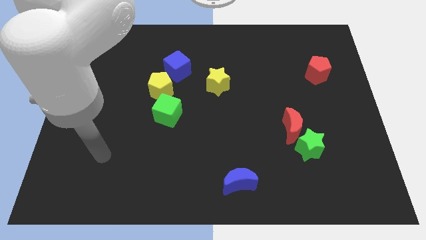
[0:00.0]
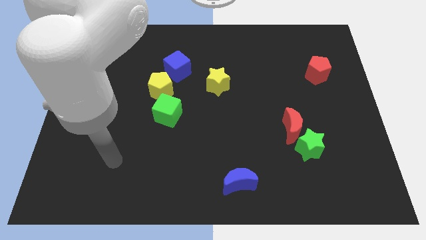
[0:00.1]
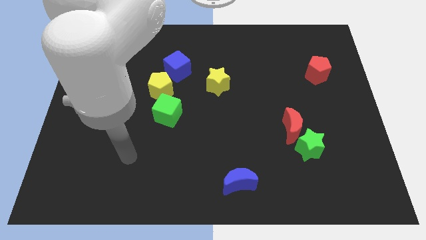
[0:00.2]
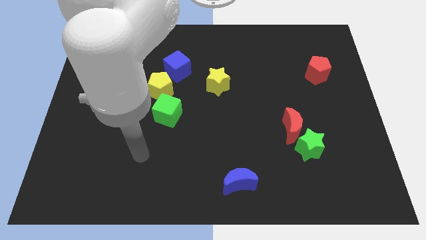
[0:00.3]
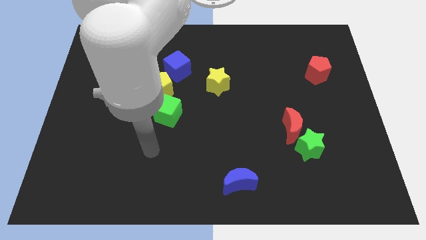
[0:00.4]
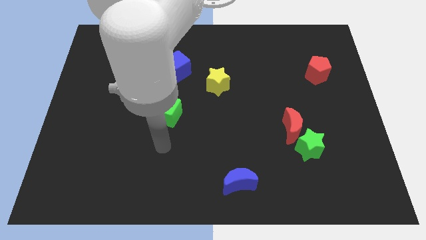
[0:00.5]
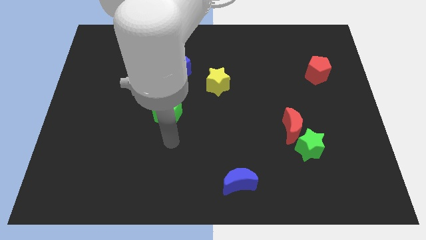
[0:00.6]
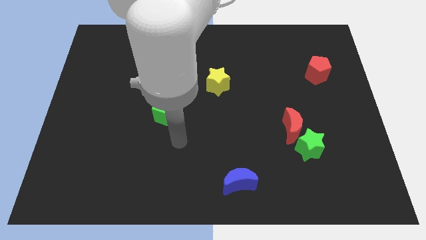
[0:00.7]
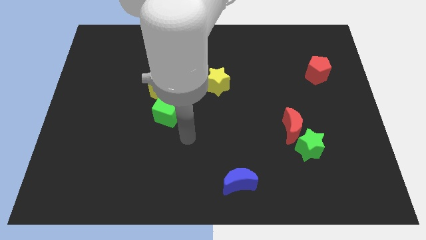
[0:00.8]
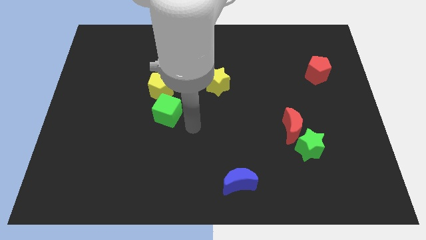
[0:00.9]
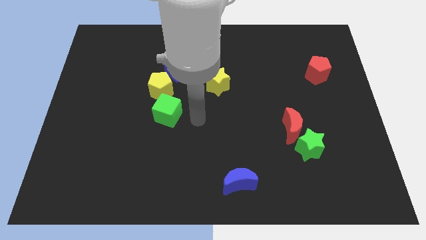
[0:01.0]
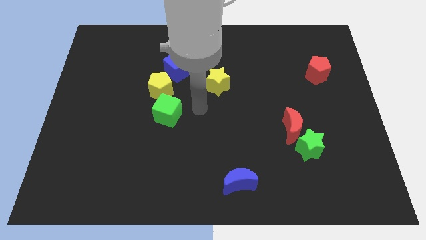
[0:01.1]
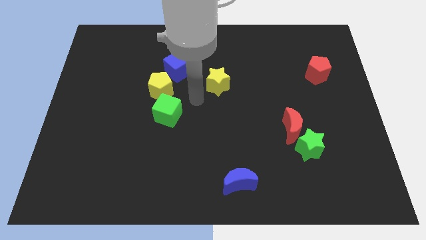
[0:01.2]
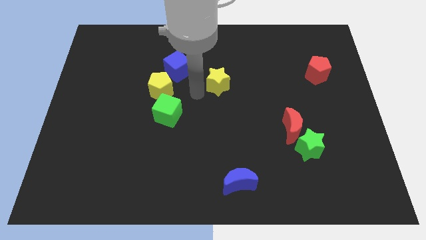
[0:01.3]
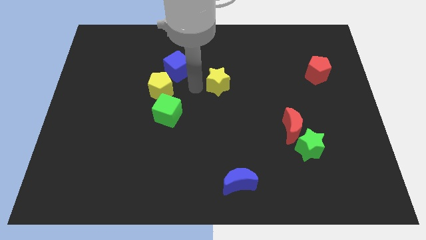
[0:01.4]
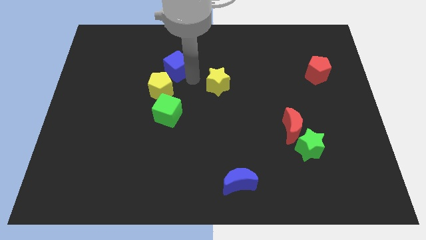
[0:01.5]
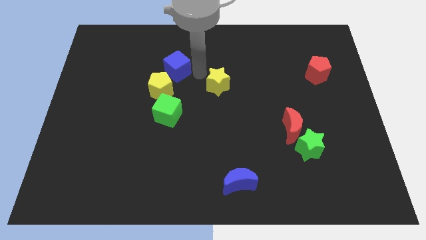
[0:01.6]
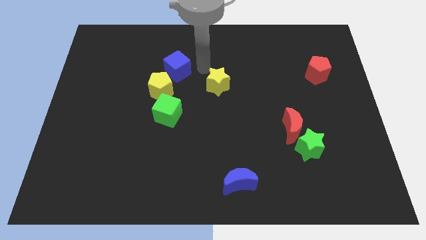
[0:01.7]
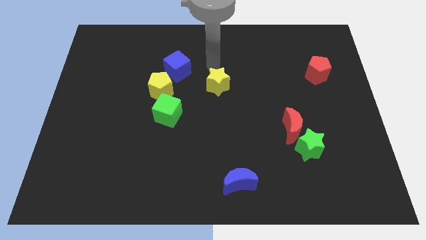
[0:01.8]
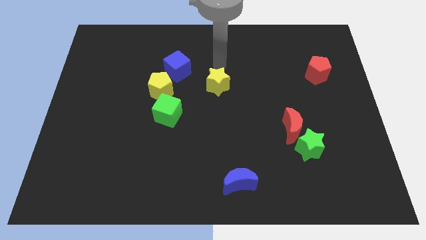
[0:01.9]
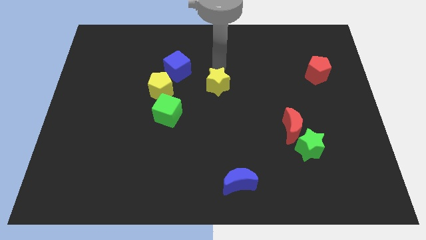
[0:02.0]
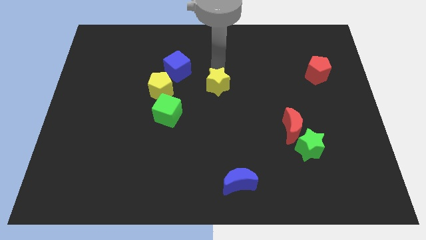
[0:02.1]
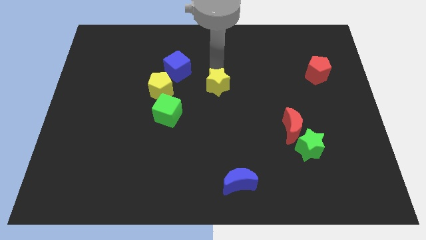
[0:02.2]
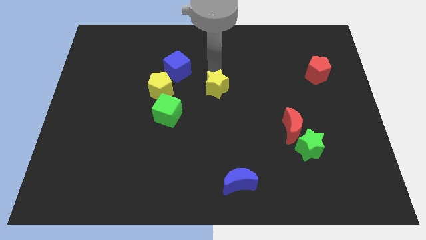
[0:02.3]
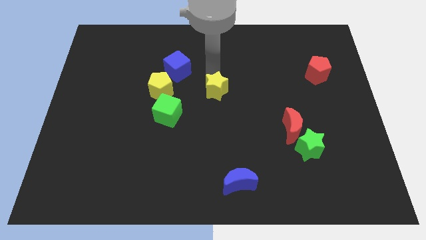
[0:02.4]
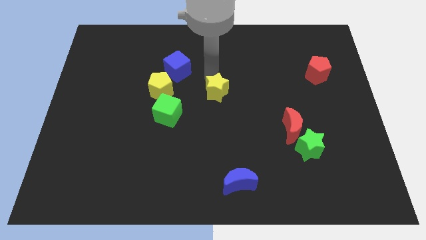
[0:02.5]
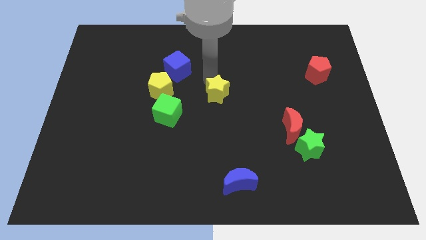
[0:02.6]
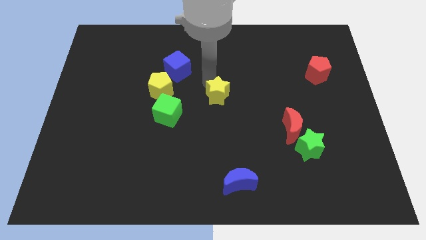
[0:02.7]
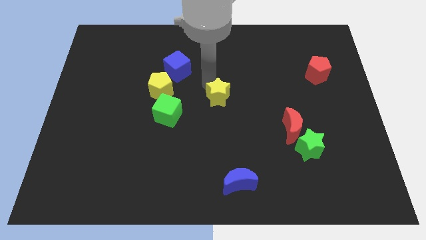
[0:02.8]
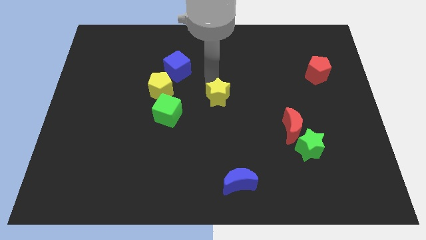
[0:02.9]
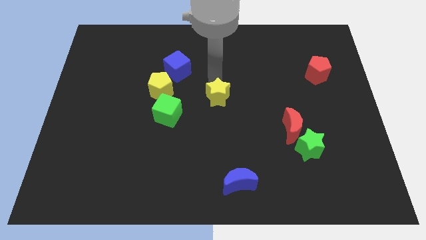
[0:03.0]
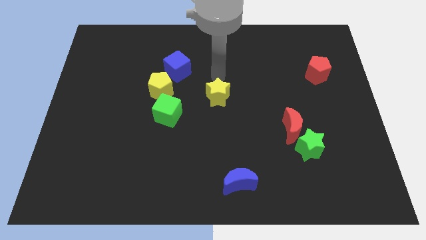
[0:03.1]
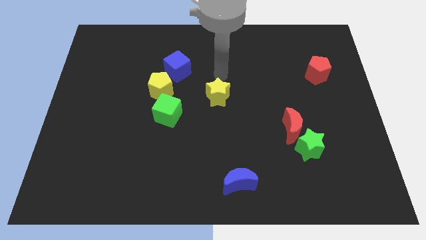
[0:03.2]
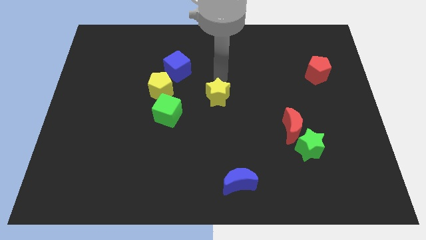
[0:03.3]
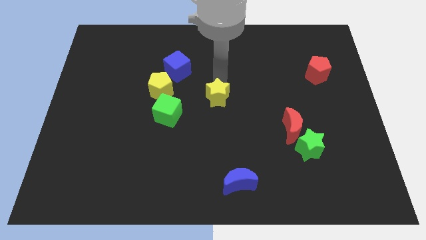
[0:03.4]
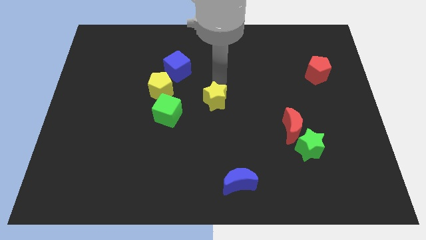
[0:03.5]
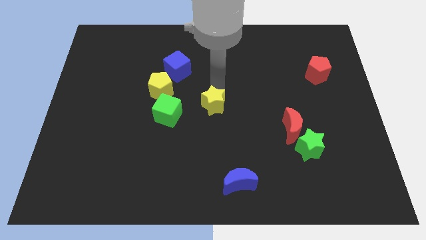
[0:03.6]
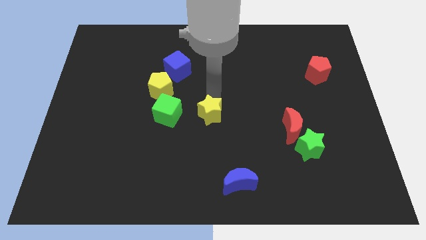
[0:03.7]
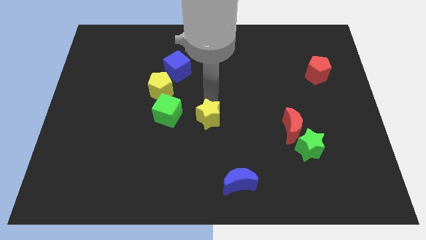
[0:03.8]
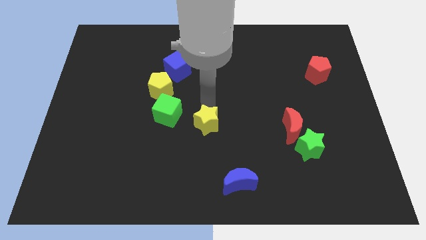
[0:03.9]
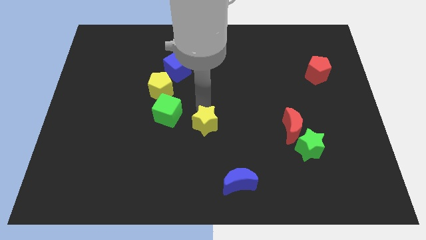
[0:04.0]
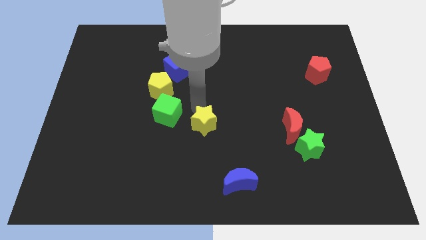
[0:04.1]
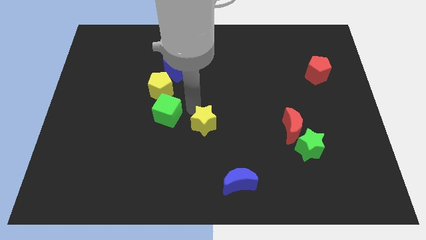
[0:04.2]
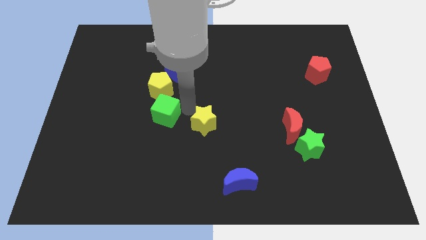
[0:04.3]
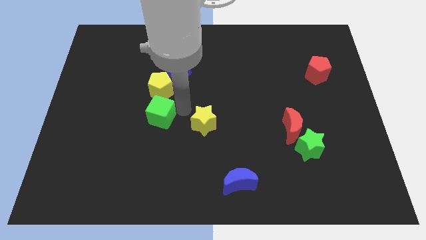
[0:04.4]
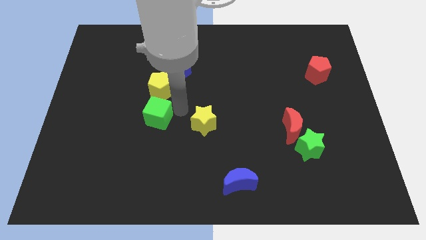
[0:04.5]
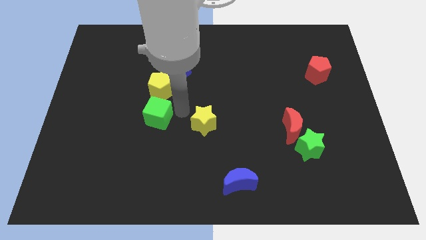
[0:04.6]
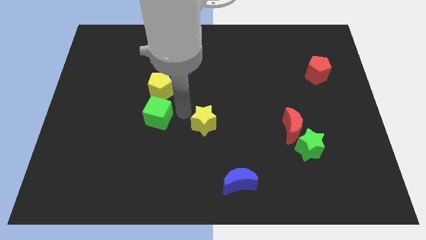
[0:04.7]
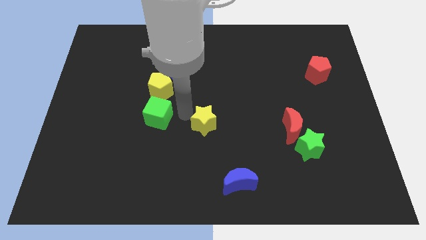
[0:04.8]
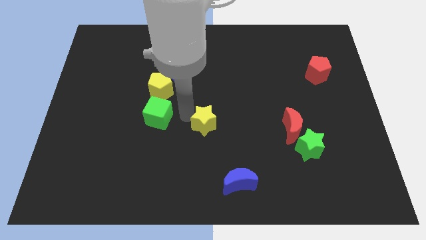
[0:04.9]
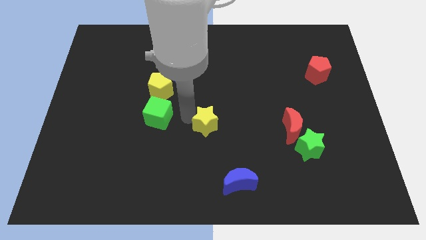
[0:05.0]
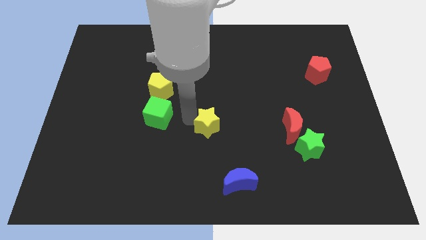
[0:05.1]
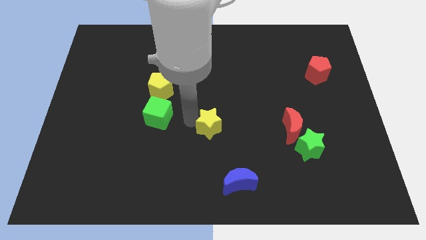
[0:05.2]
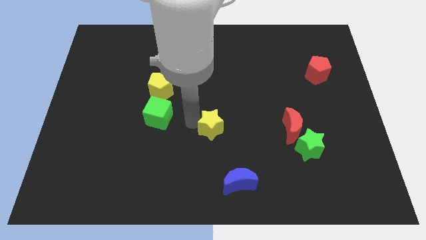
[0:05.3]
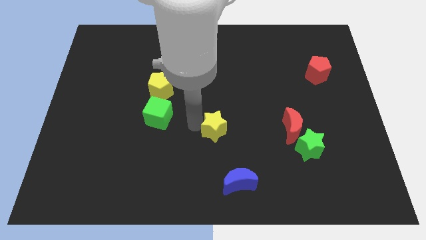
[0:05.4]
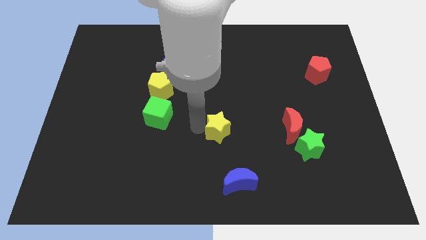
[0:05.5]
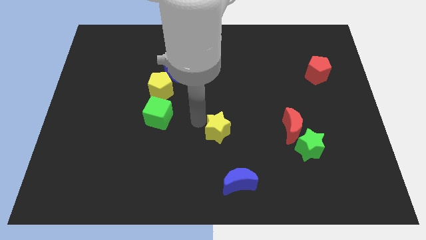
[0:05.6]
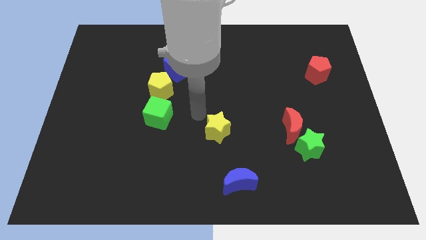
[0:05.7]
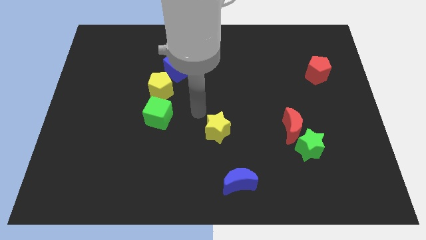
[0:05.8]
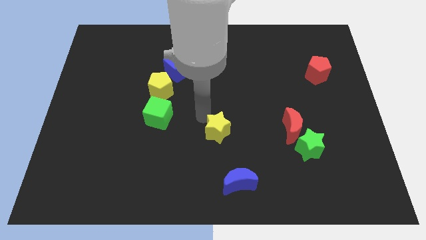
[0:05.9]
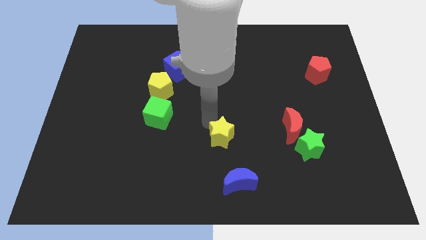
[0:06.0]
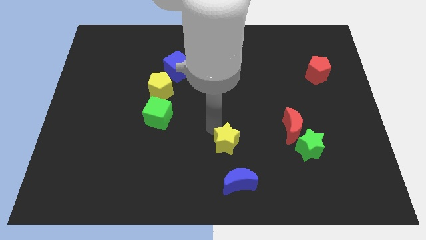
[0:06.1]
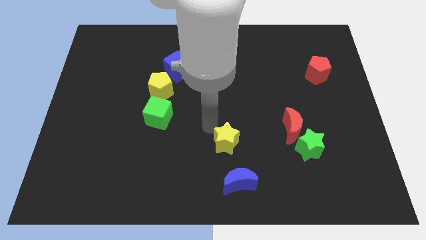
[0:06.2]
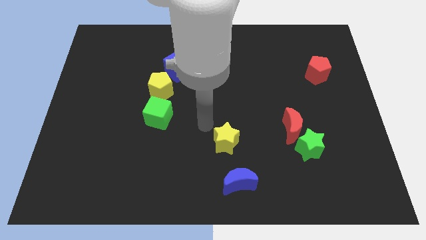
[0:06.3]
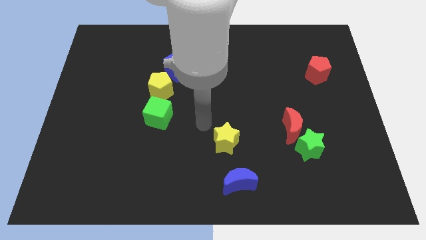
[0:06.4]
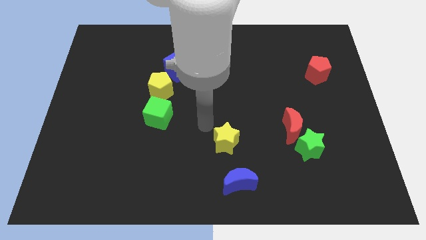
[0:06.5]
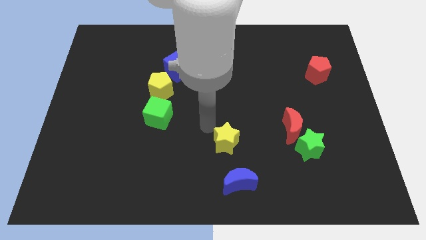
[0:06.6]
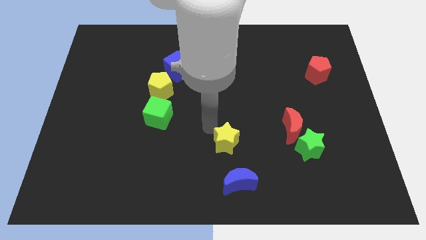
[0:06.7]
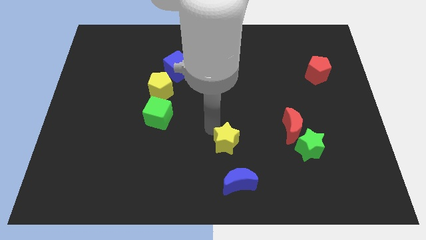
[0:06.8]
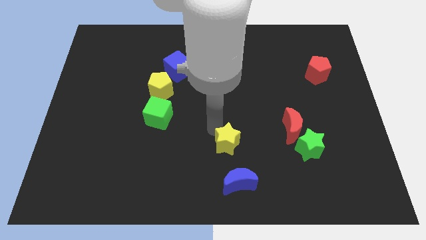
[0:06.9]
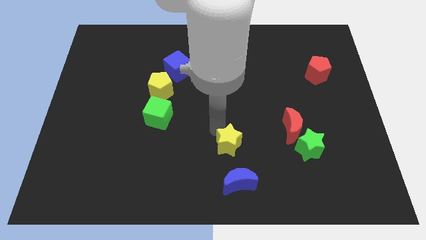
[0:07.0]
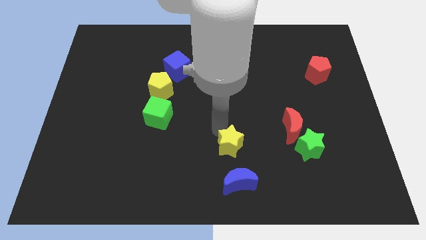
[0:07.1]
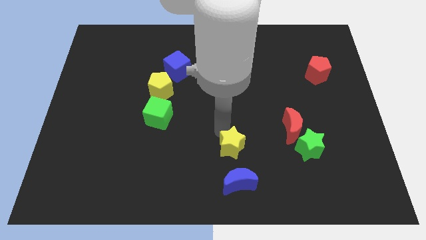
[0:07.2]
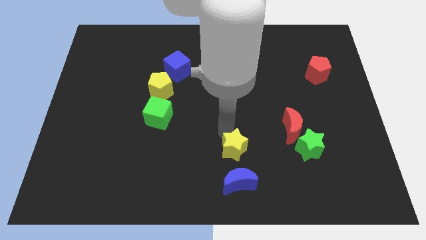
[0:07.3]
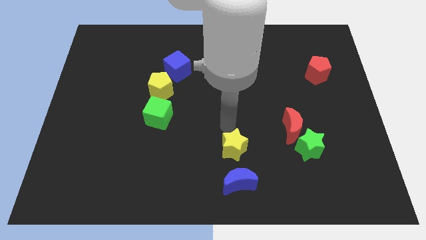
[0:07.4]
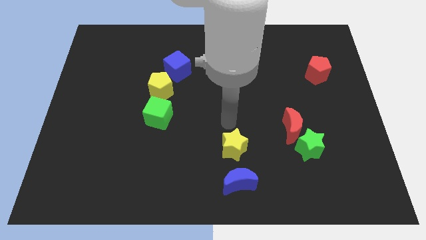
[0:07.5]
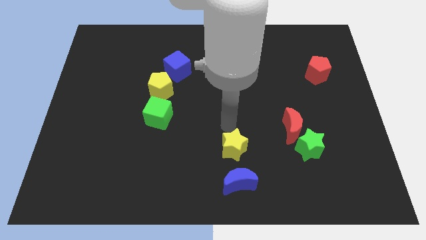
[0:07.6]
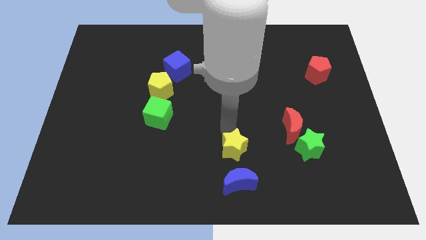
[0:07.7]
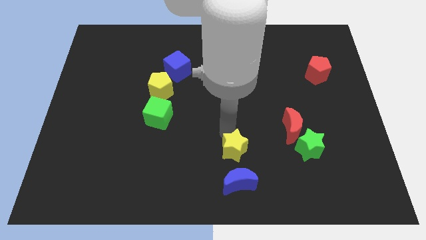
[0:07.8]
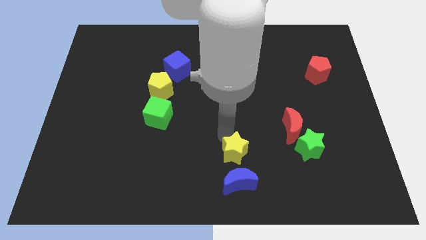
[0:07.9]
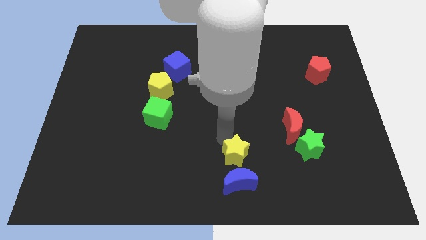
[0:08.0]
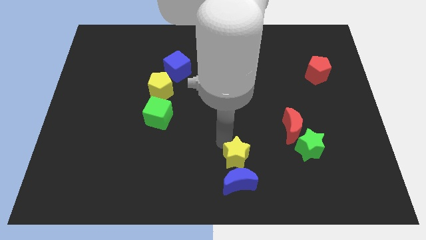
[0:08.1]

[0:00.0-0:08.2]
slide the yellow star next to the blue moon
